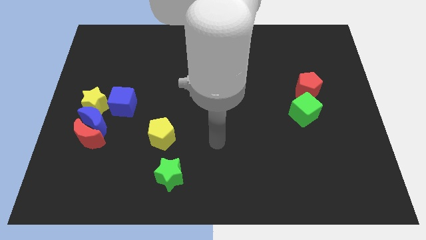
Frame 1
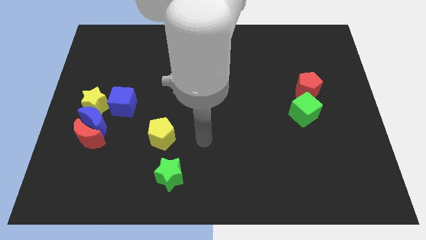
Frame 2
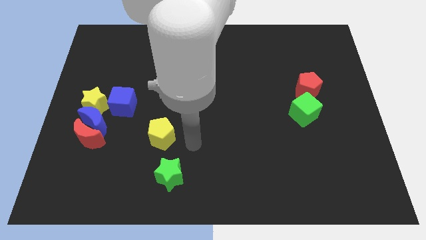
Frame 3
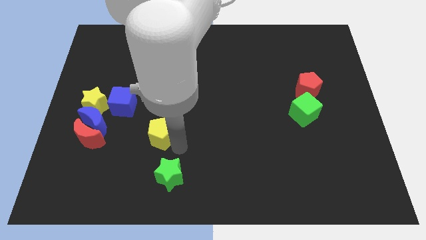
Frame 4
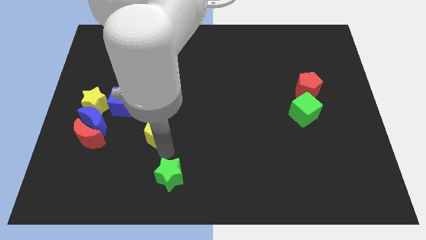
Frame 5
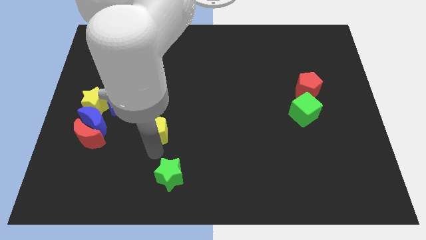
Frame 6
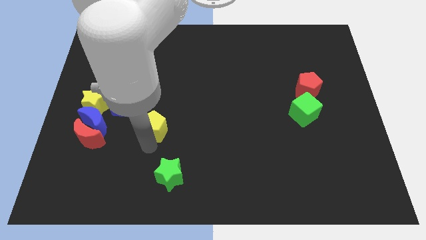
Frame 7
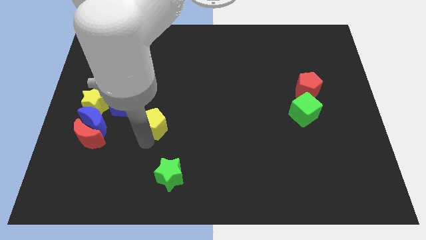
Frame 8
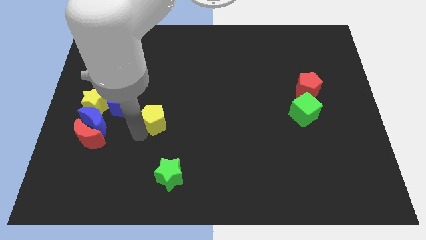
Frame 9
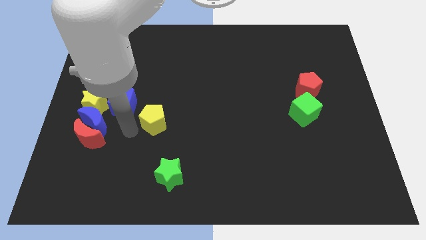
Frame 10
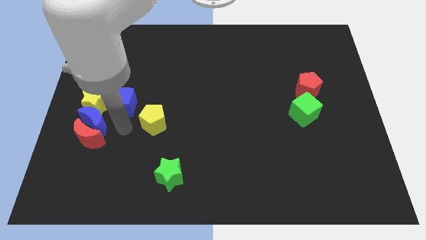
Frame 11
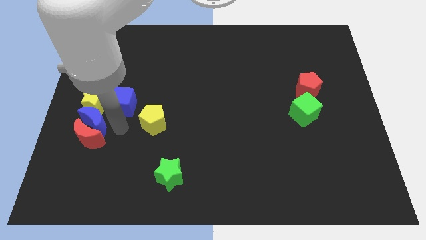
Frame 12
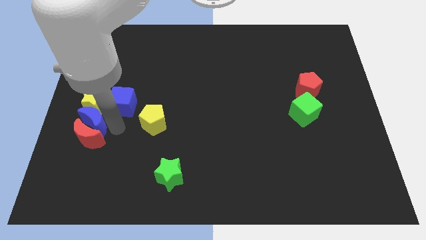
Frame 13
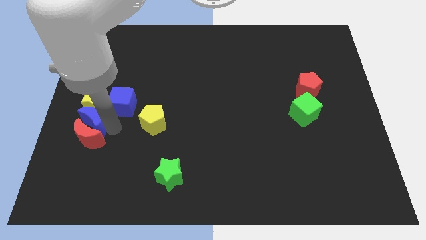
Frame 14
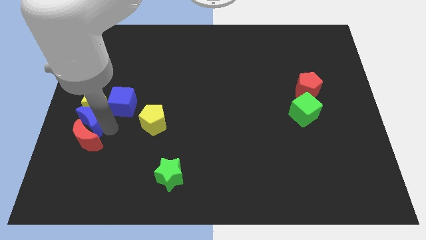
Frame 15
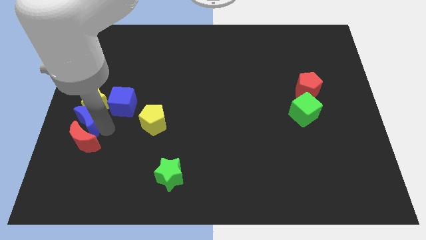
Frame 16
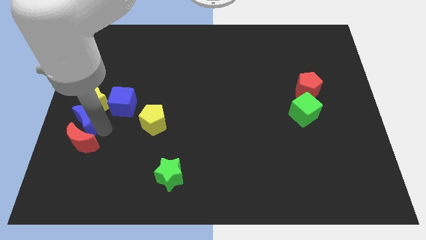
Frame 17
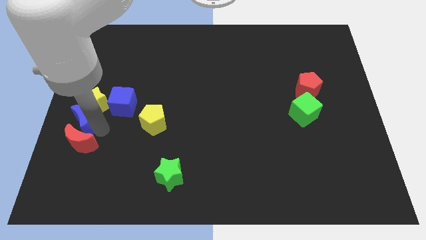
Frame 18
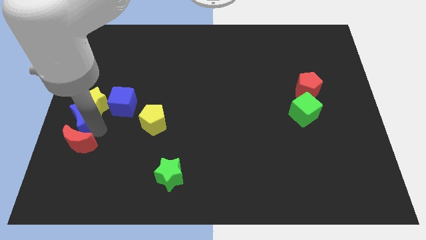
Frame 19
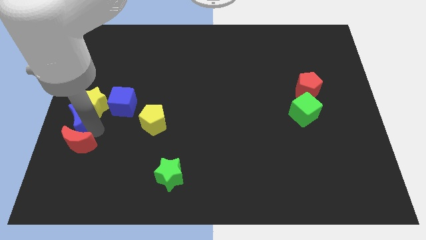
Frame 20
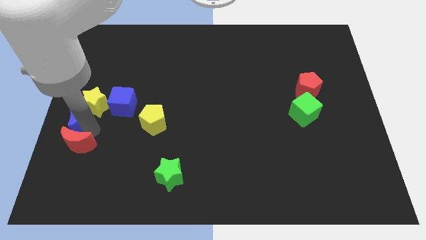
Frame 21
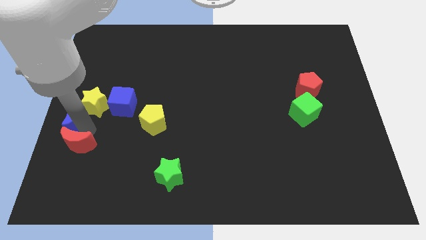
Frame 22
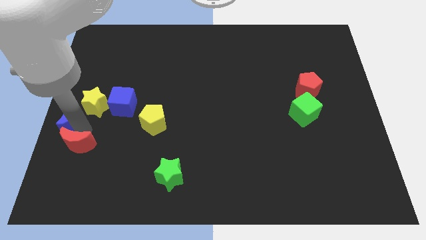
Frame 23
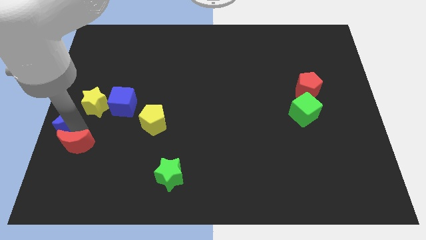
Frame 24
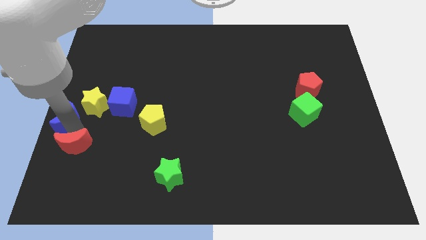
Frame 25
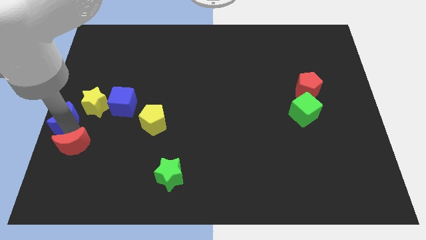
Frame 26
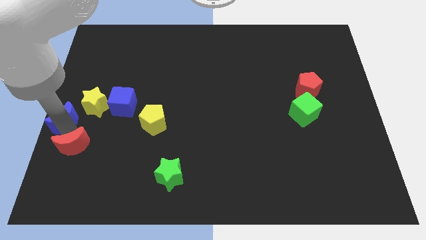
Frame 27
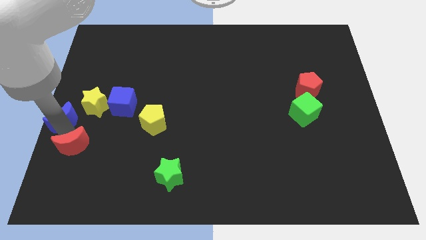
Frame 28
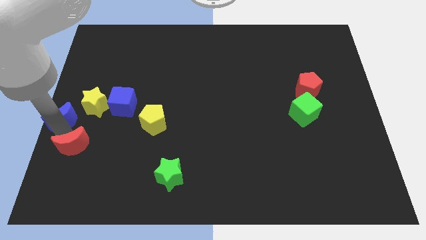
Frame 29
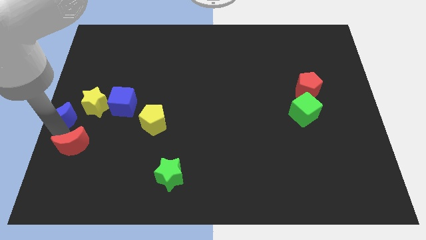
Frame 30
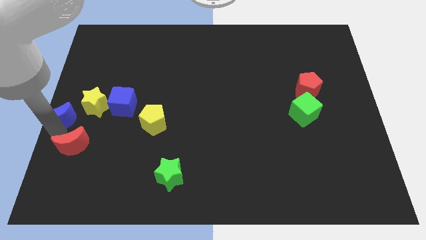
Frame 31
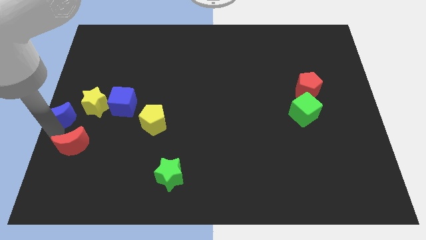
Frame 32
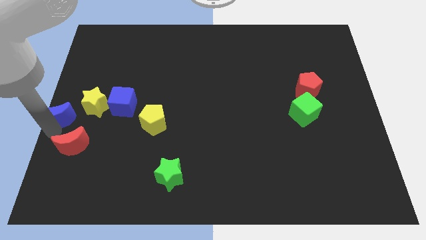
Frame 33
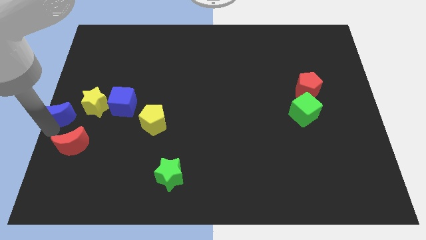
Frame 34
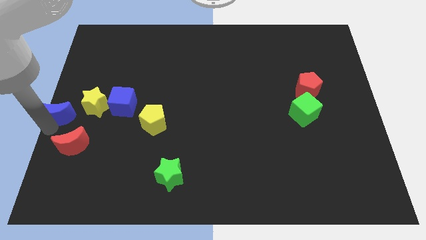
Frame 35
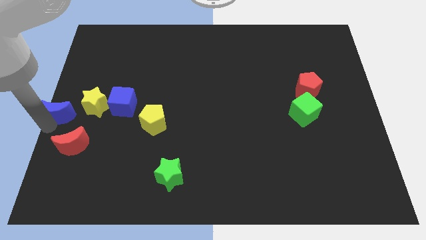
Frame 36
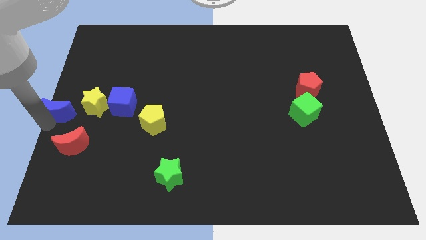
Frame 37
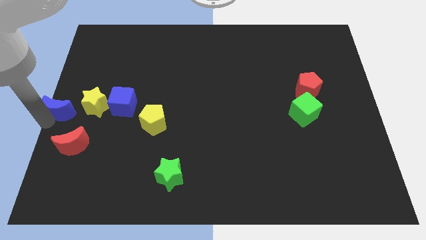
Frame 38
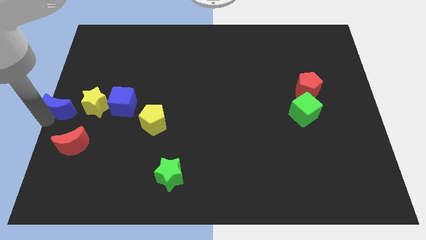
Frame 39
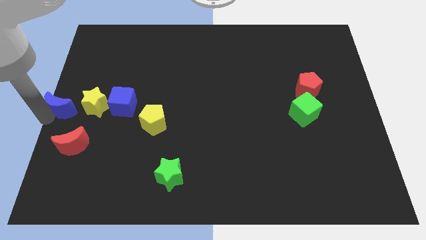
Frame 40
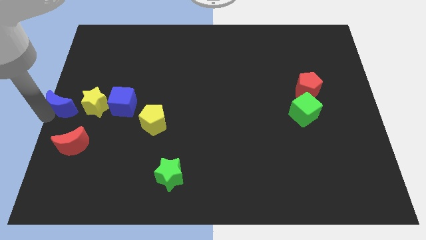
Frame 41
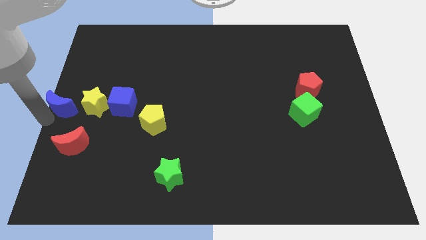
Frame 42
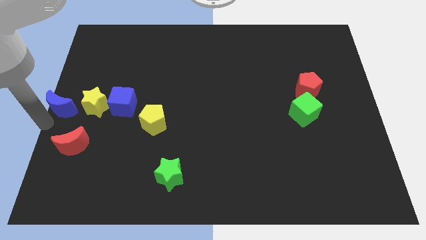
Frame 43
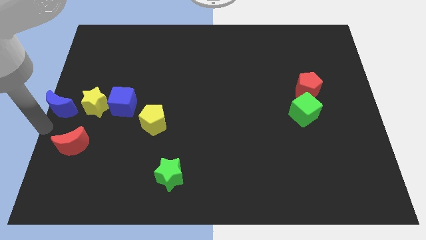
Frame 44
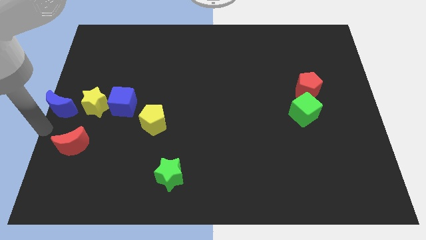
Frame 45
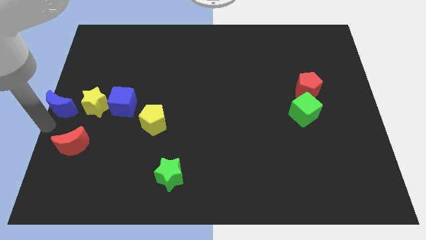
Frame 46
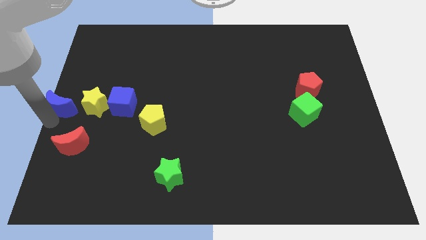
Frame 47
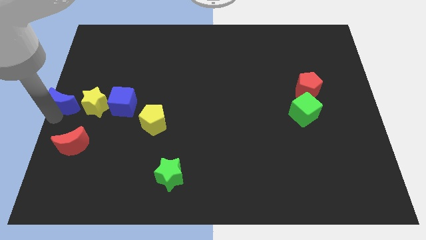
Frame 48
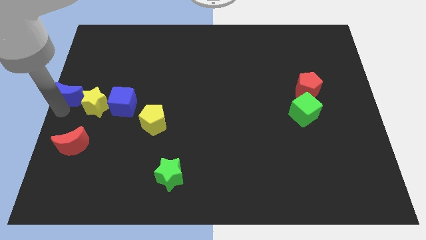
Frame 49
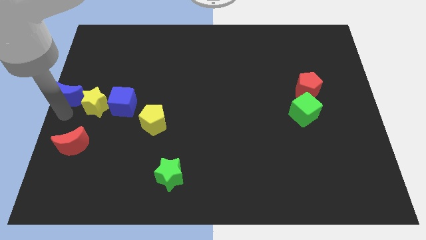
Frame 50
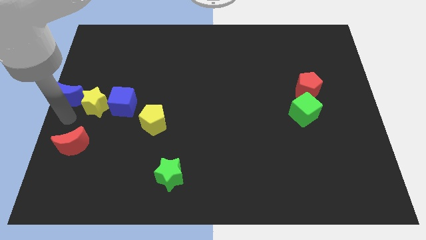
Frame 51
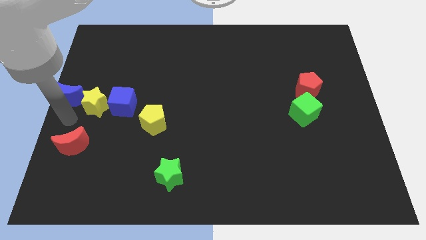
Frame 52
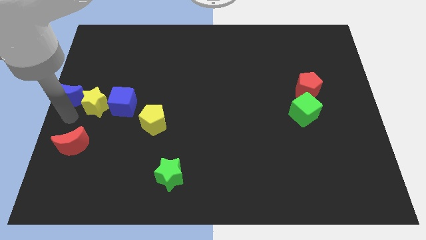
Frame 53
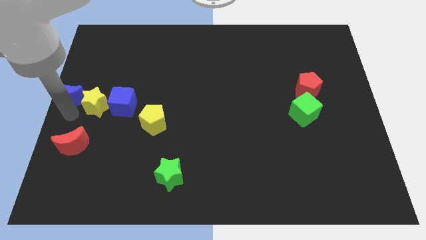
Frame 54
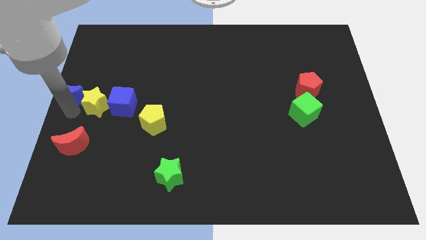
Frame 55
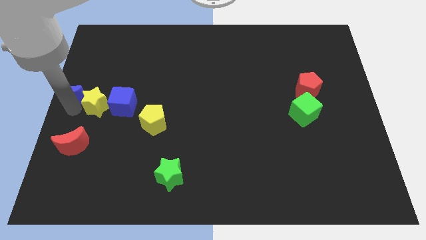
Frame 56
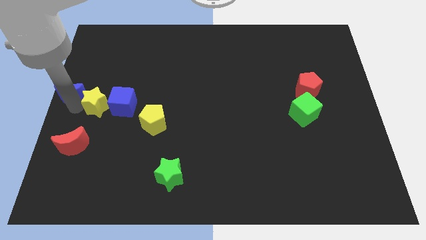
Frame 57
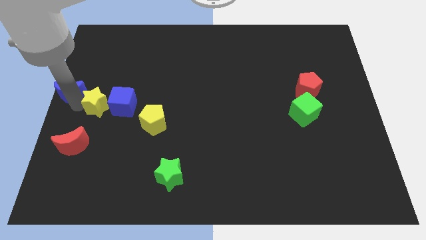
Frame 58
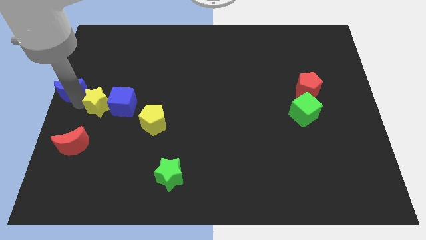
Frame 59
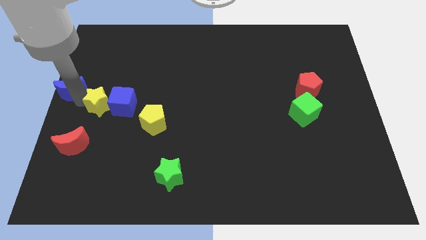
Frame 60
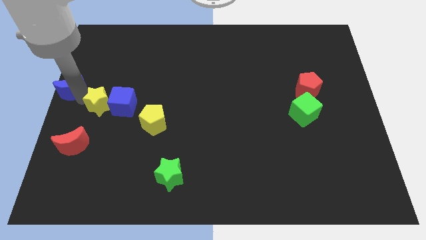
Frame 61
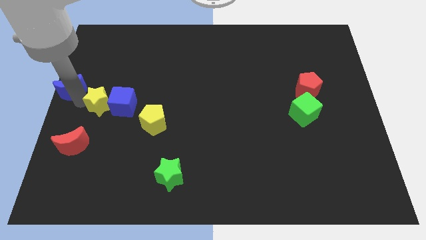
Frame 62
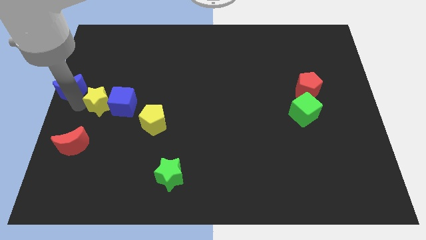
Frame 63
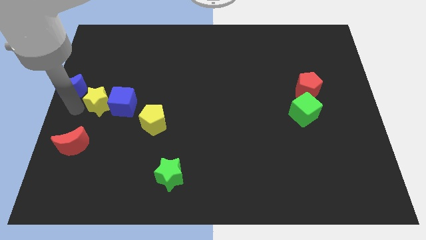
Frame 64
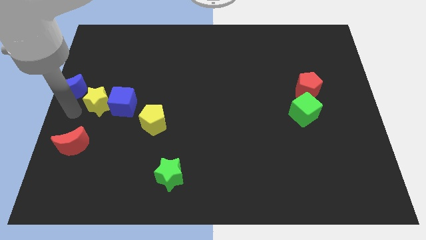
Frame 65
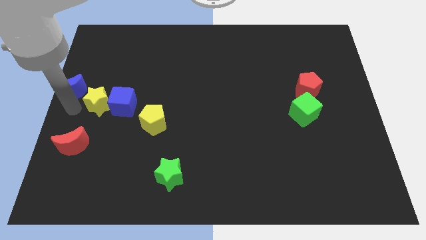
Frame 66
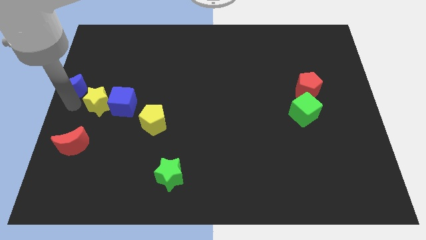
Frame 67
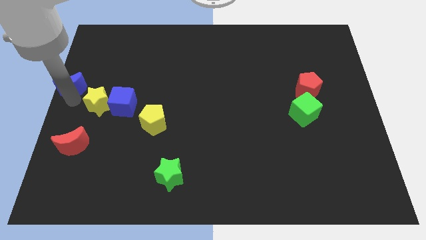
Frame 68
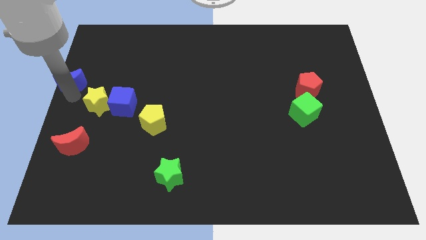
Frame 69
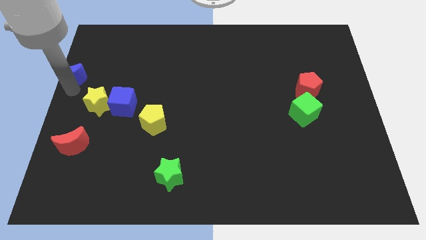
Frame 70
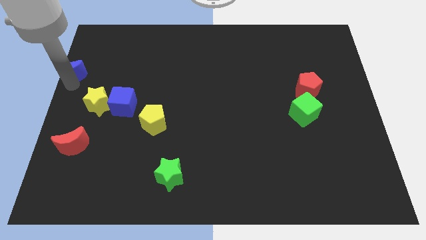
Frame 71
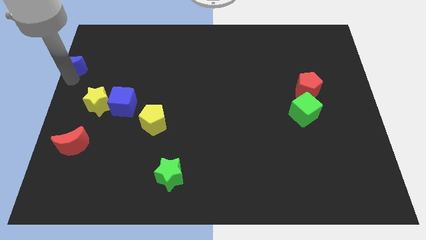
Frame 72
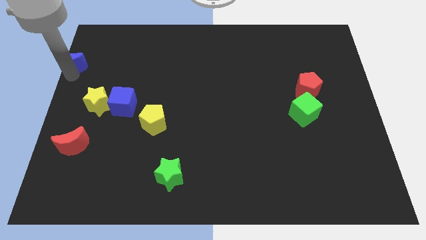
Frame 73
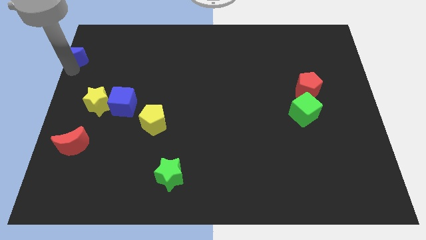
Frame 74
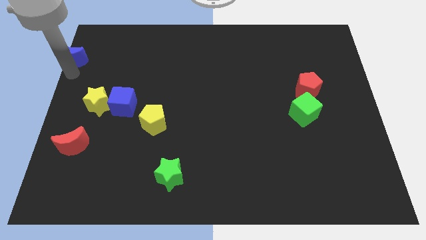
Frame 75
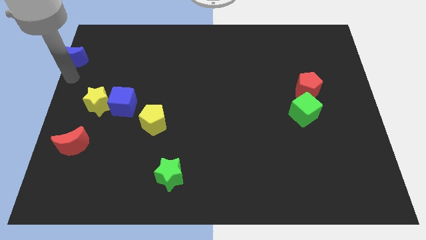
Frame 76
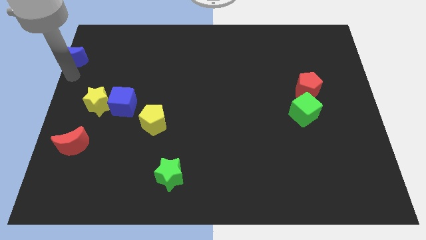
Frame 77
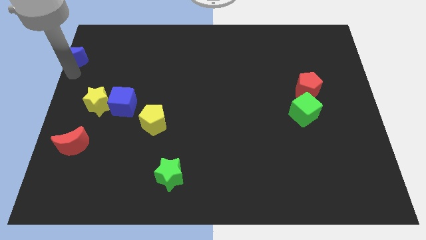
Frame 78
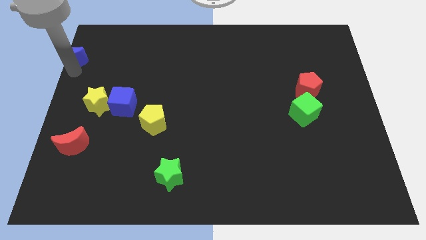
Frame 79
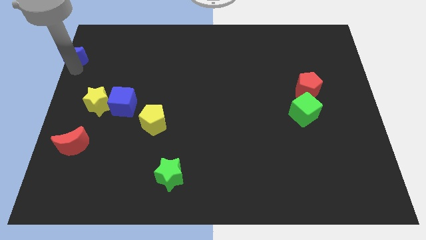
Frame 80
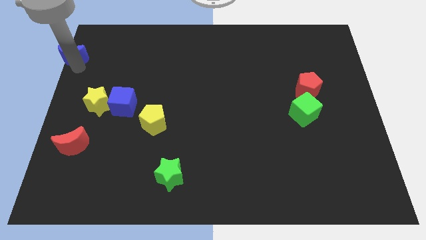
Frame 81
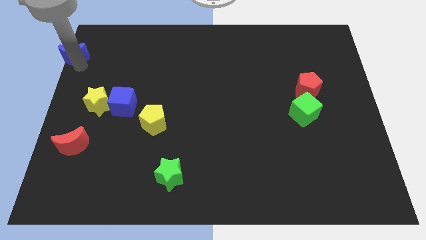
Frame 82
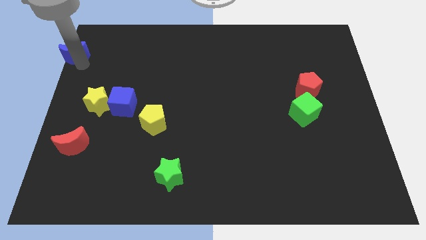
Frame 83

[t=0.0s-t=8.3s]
slide the blue moon to the top left
